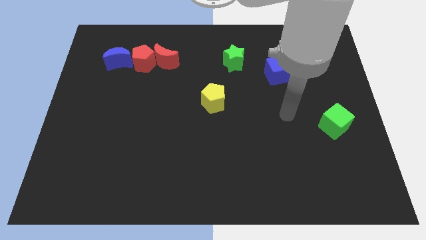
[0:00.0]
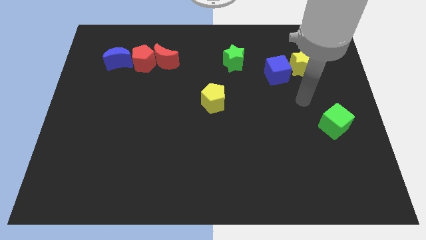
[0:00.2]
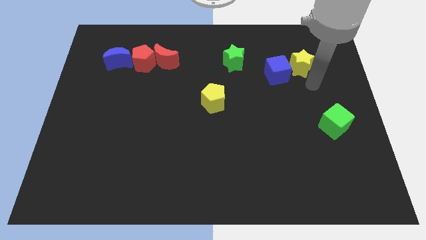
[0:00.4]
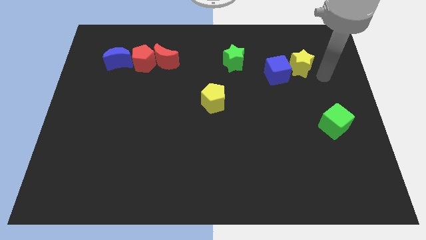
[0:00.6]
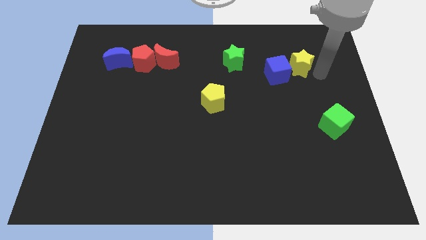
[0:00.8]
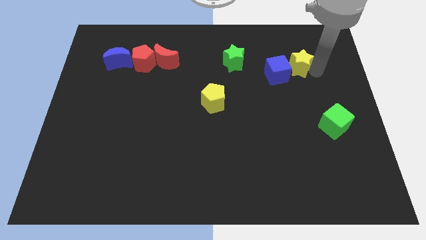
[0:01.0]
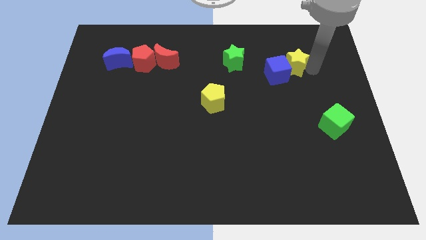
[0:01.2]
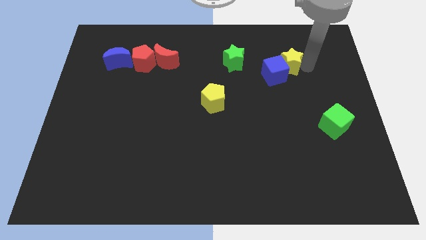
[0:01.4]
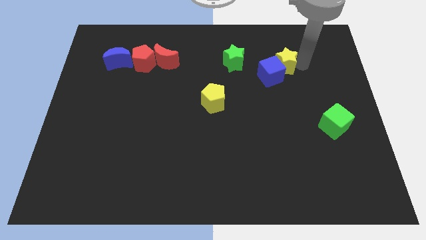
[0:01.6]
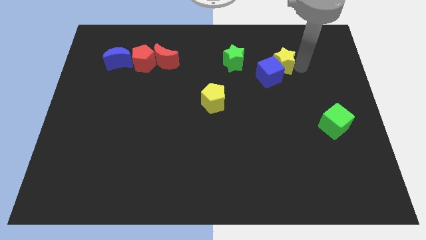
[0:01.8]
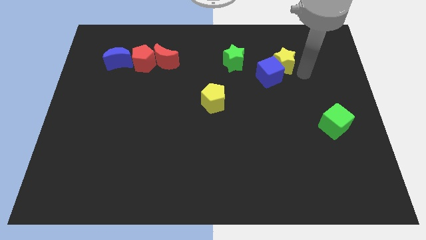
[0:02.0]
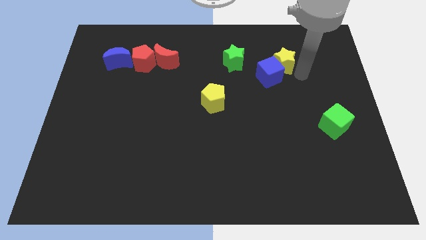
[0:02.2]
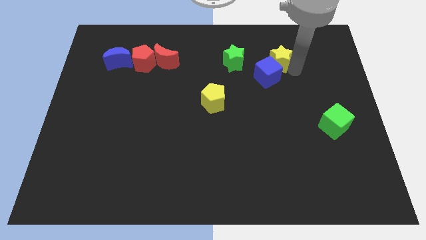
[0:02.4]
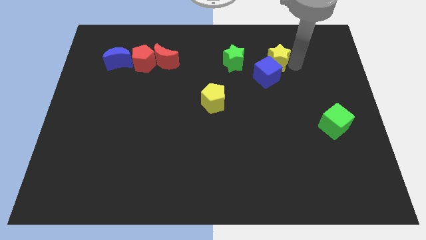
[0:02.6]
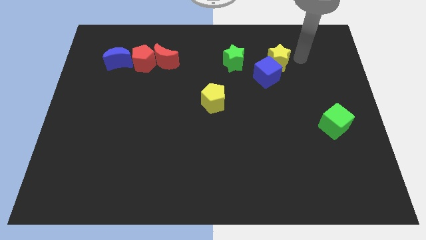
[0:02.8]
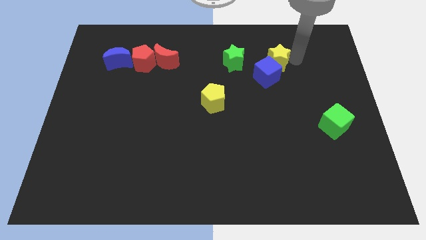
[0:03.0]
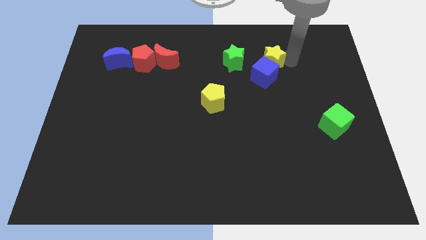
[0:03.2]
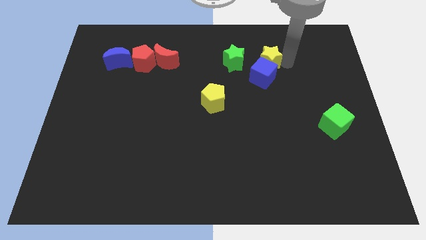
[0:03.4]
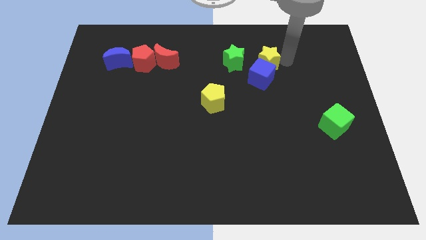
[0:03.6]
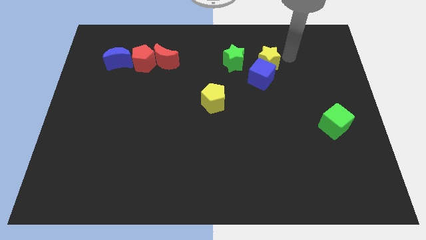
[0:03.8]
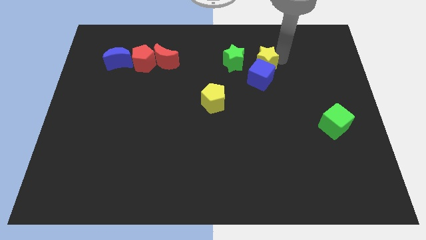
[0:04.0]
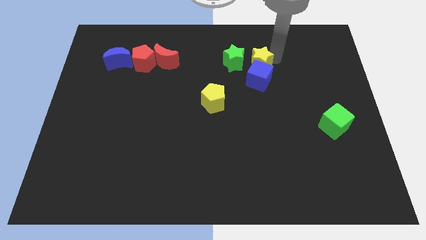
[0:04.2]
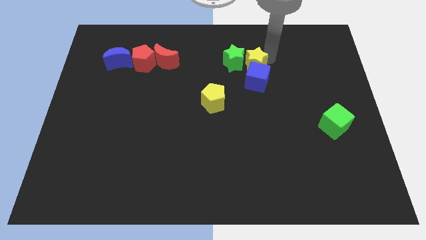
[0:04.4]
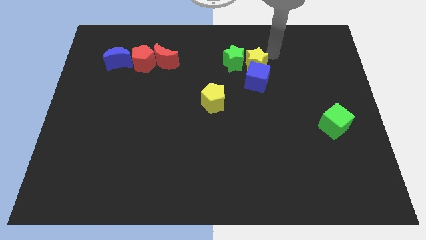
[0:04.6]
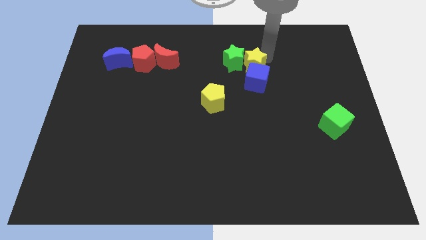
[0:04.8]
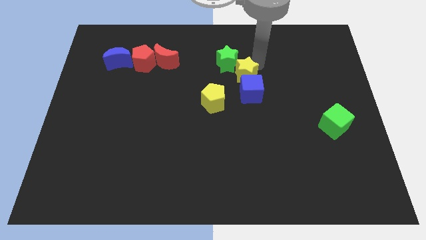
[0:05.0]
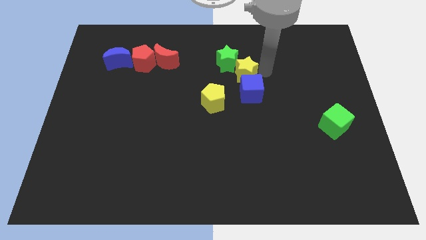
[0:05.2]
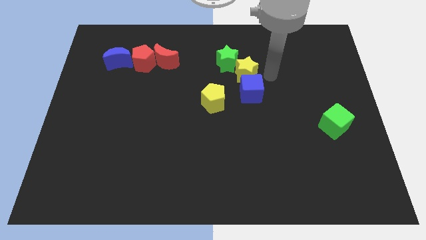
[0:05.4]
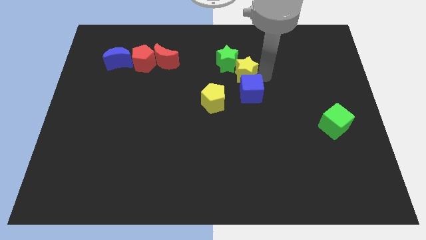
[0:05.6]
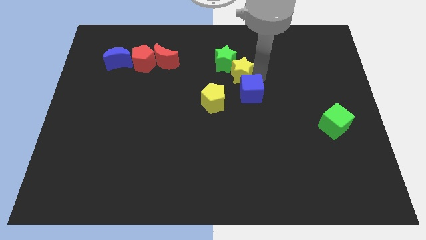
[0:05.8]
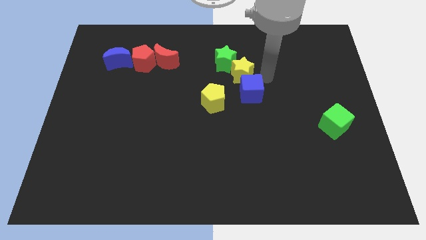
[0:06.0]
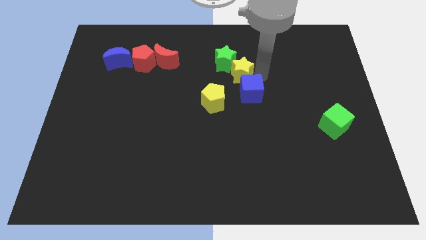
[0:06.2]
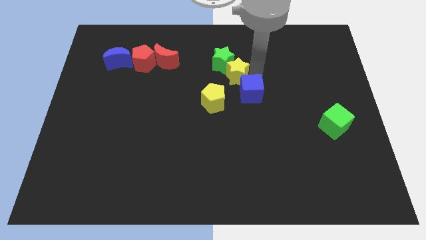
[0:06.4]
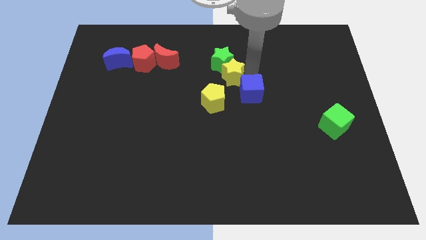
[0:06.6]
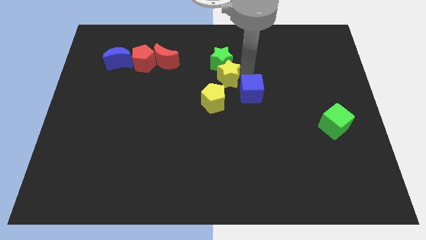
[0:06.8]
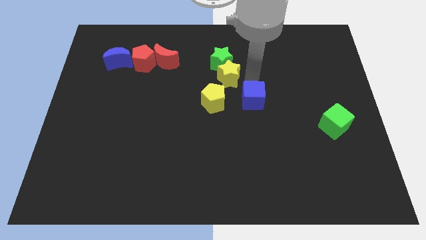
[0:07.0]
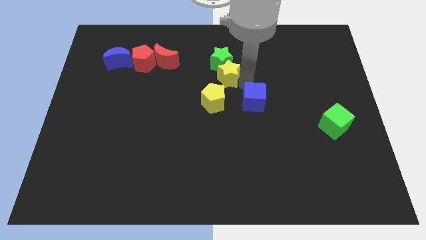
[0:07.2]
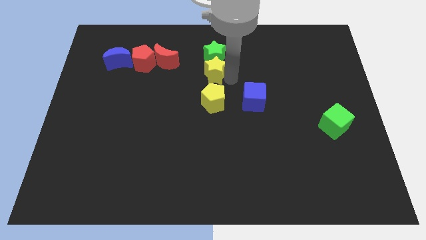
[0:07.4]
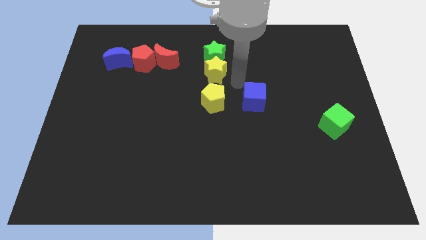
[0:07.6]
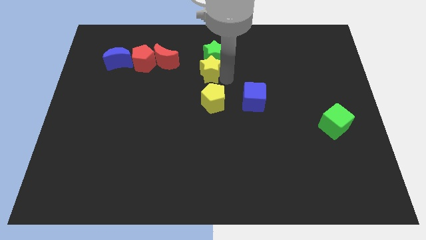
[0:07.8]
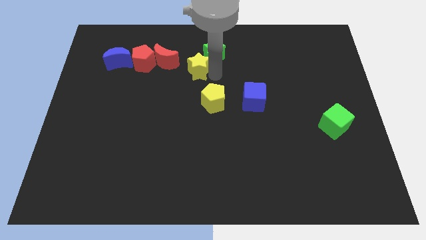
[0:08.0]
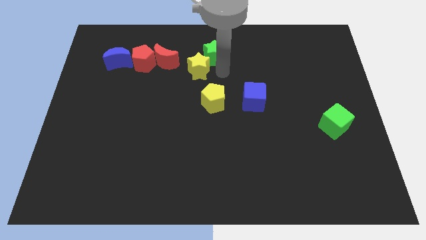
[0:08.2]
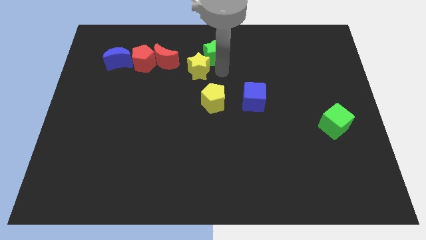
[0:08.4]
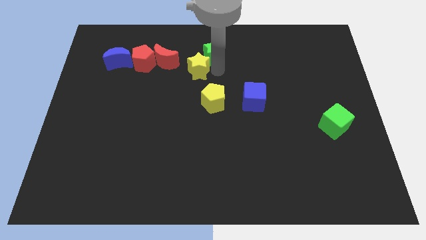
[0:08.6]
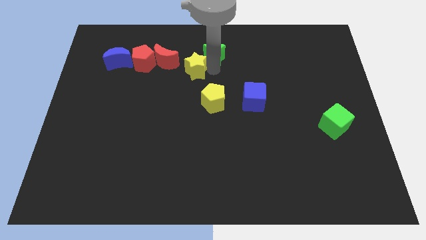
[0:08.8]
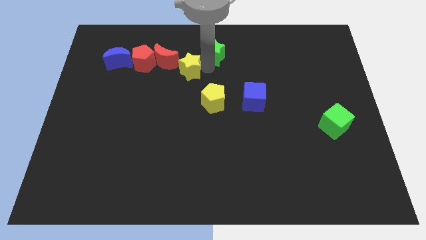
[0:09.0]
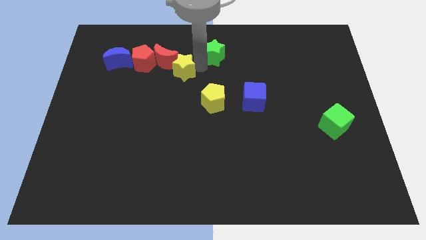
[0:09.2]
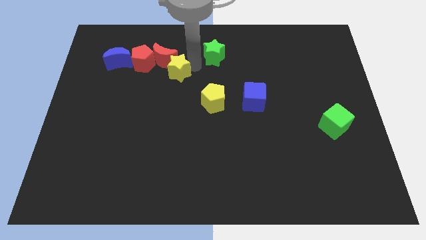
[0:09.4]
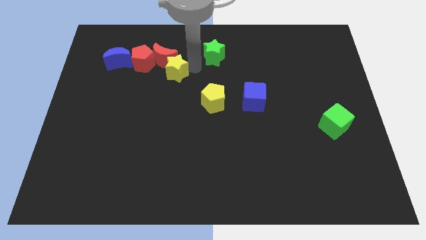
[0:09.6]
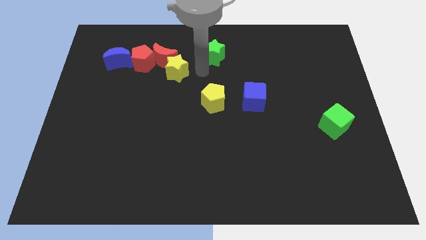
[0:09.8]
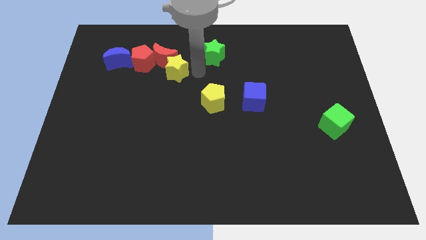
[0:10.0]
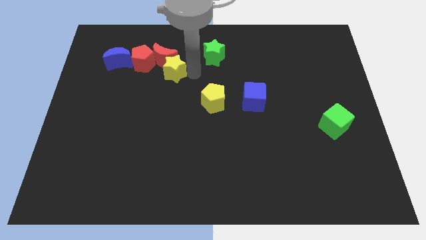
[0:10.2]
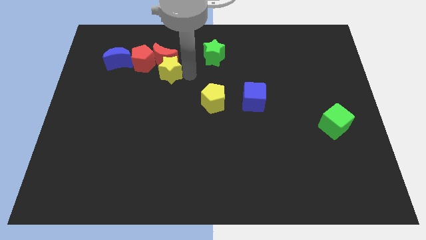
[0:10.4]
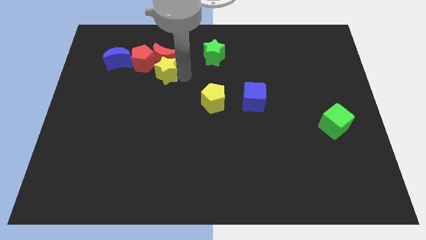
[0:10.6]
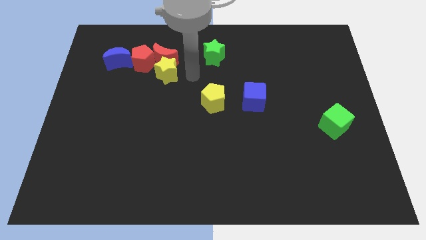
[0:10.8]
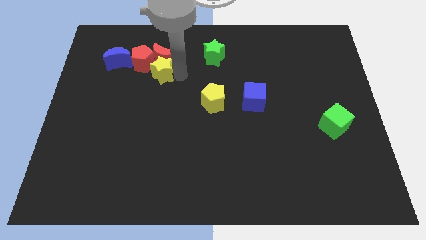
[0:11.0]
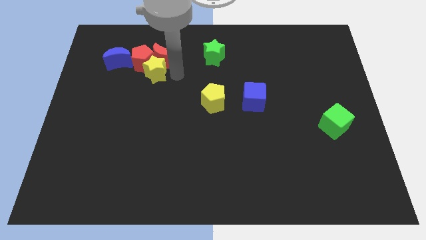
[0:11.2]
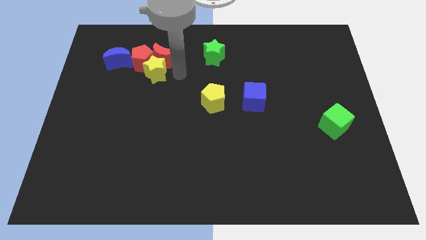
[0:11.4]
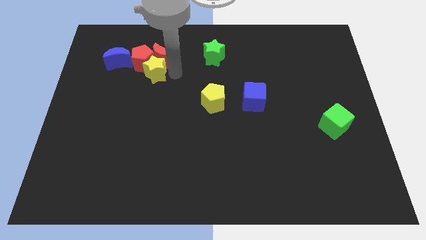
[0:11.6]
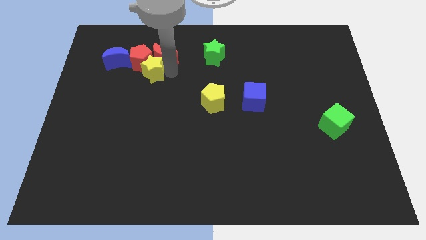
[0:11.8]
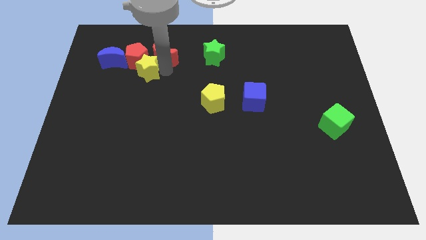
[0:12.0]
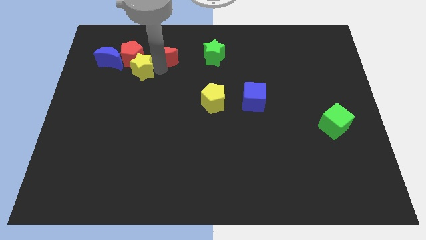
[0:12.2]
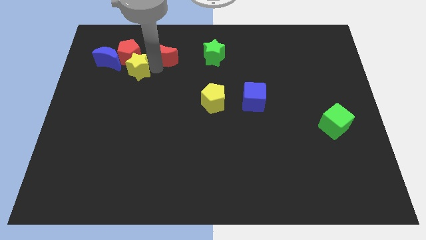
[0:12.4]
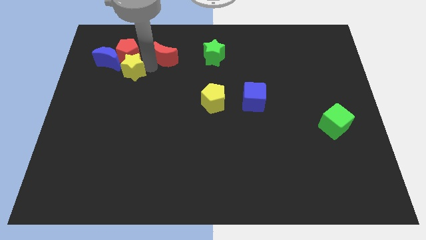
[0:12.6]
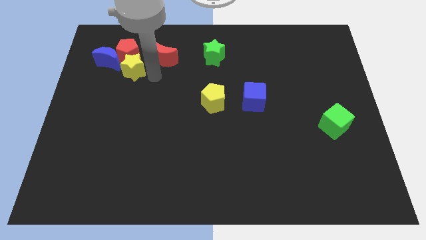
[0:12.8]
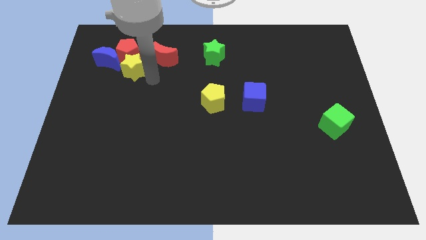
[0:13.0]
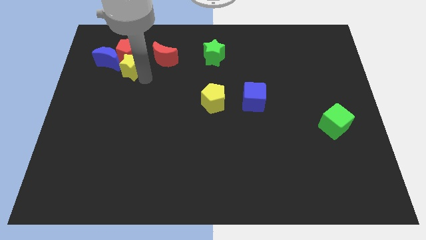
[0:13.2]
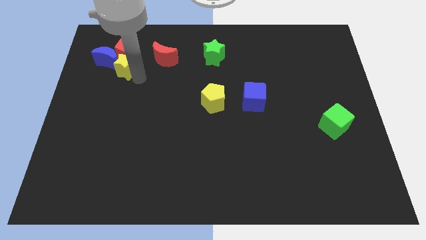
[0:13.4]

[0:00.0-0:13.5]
move the yellow star next to the blue moon
